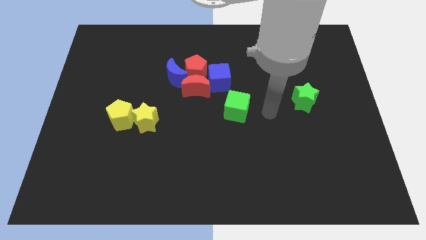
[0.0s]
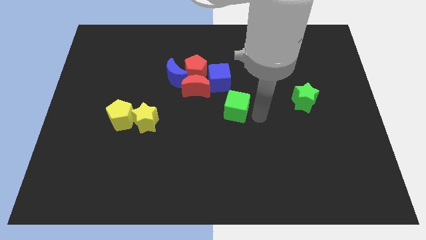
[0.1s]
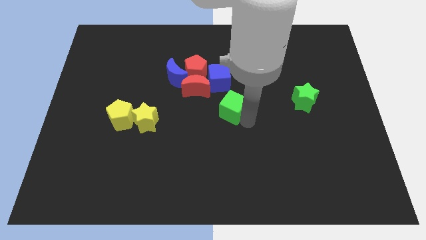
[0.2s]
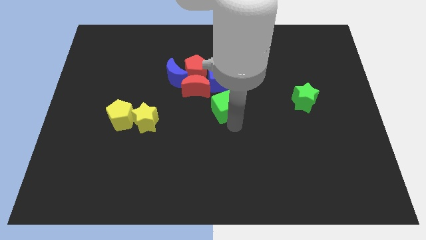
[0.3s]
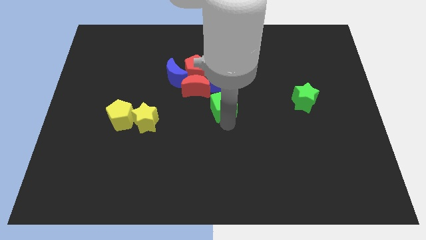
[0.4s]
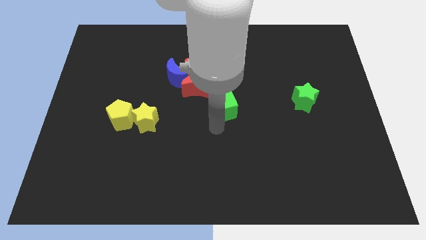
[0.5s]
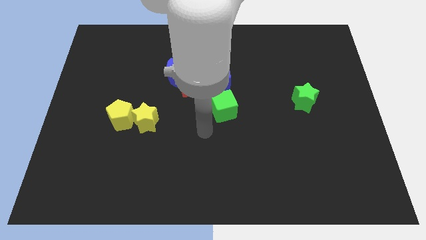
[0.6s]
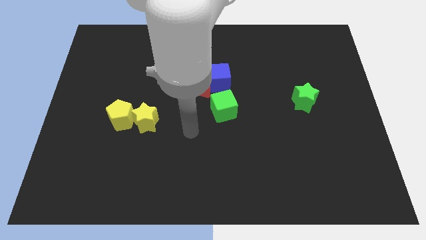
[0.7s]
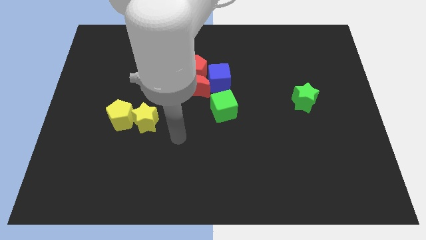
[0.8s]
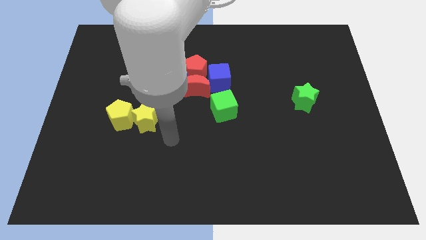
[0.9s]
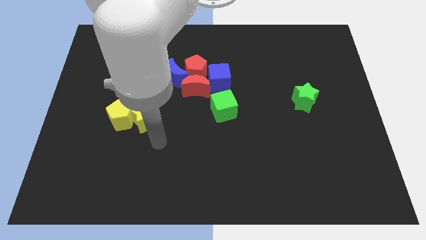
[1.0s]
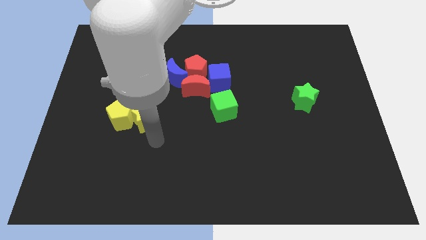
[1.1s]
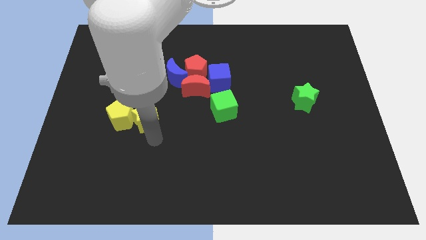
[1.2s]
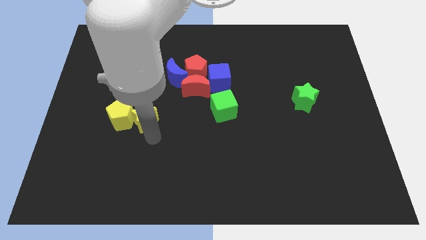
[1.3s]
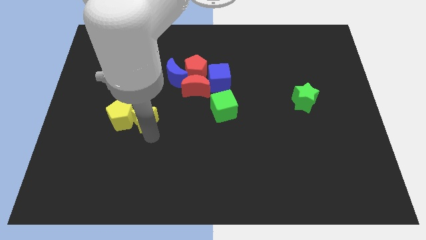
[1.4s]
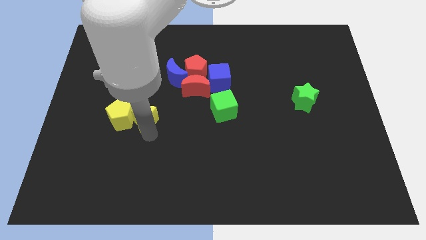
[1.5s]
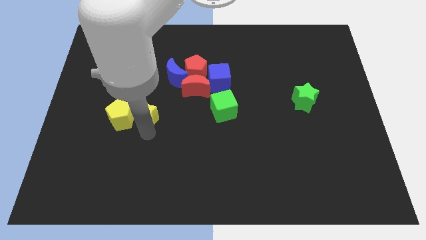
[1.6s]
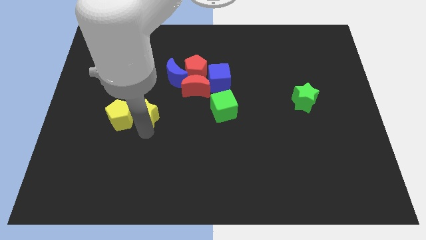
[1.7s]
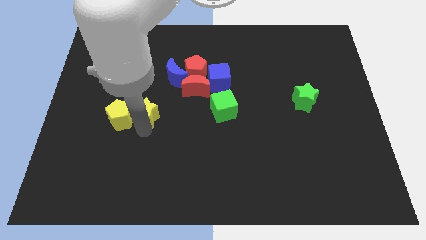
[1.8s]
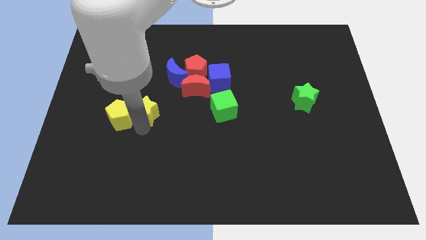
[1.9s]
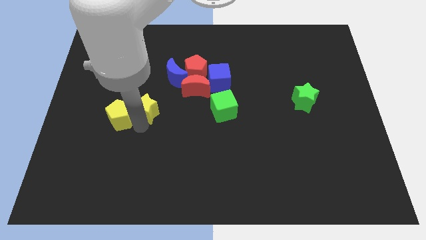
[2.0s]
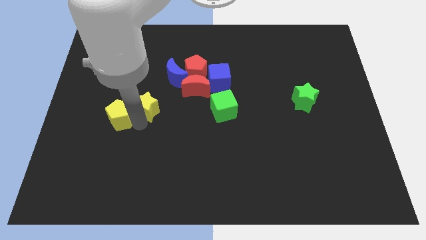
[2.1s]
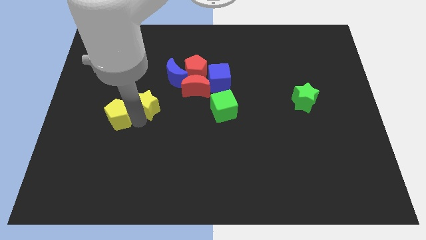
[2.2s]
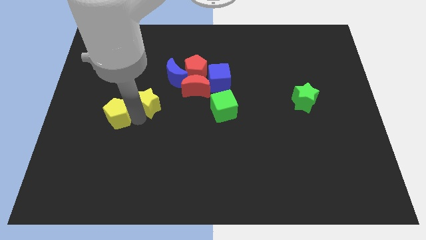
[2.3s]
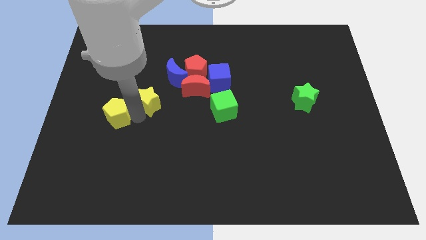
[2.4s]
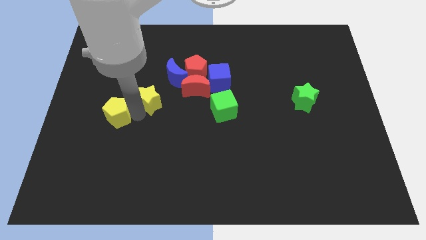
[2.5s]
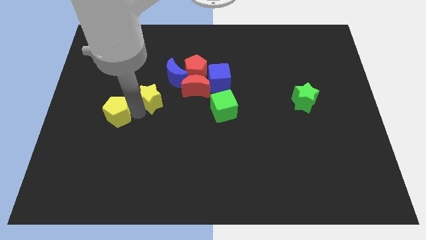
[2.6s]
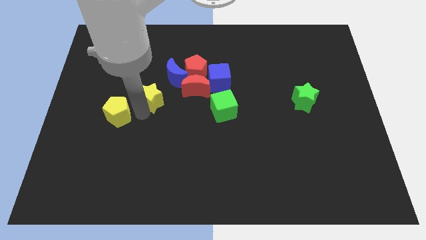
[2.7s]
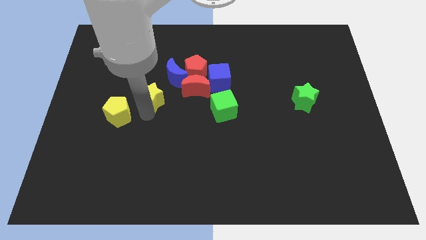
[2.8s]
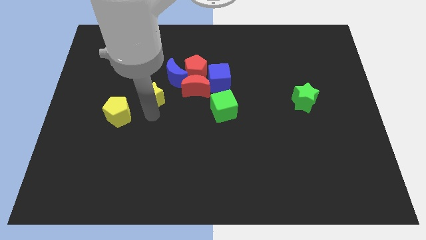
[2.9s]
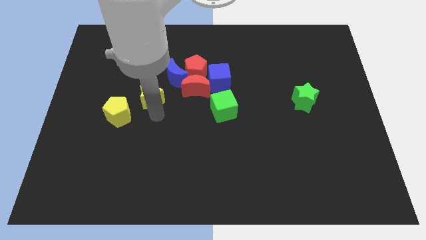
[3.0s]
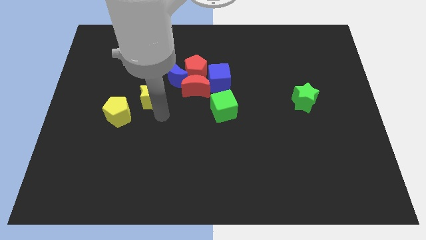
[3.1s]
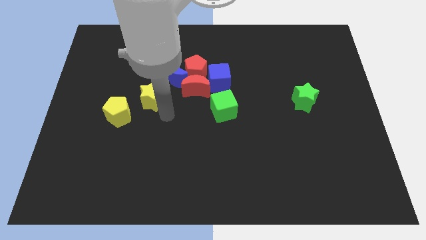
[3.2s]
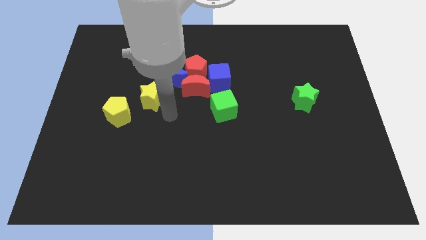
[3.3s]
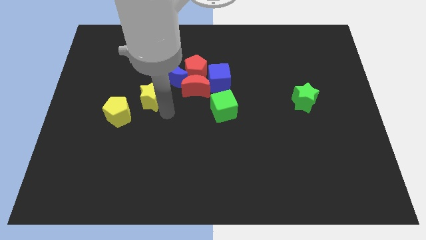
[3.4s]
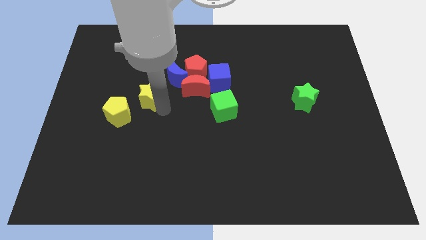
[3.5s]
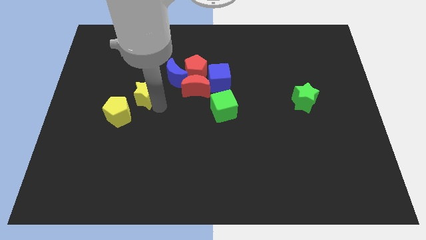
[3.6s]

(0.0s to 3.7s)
move the yellow star somewhat upwards

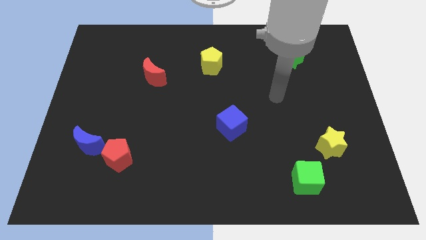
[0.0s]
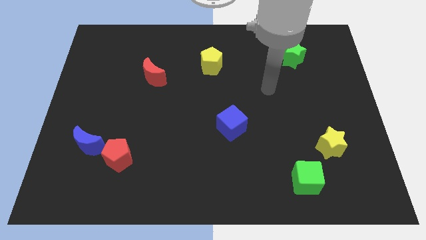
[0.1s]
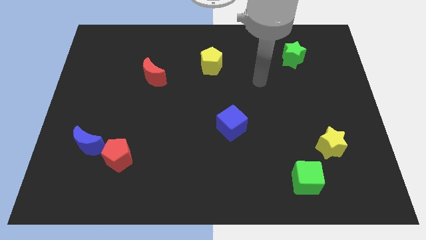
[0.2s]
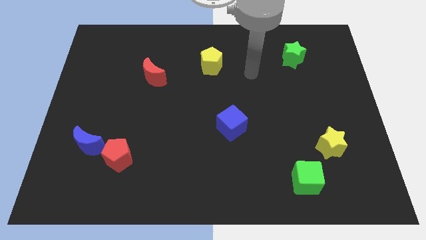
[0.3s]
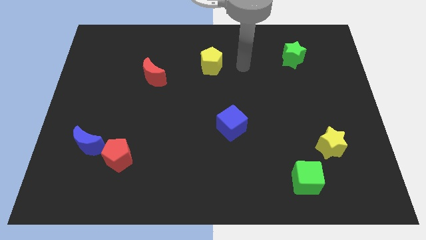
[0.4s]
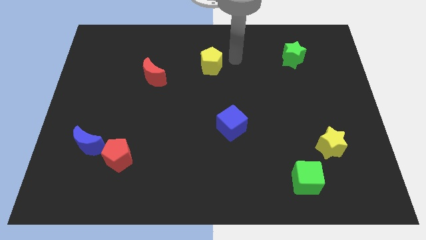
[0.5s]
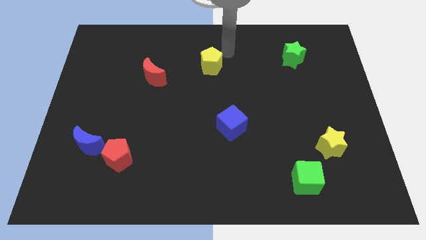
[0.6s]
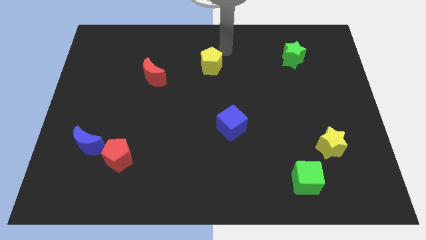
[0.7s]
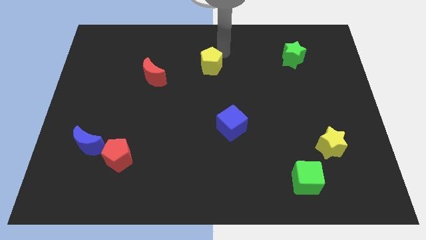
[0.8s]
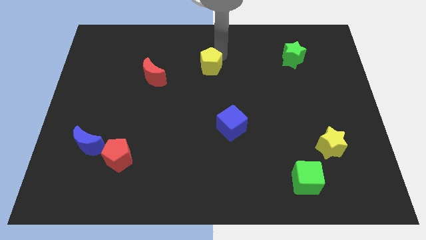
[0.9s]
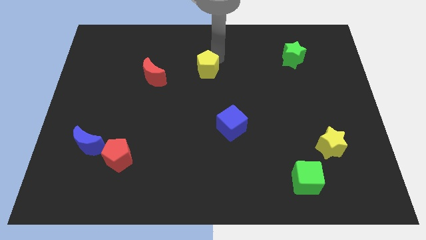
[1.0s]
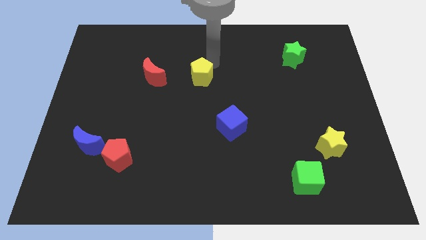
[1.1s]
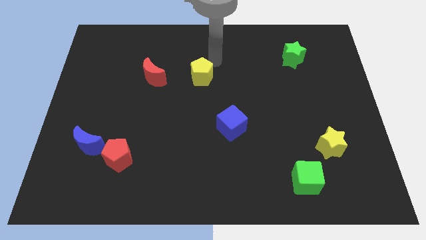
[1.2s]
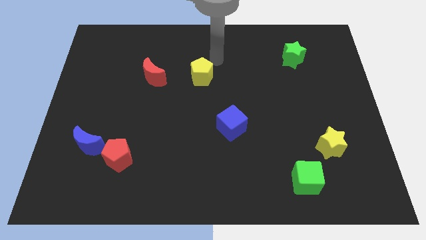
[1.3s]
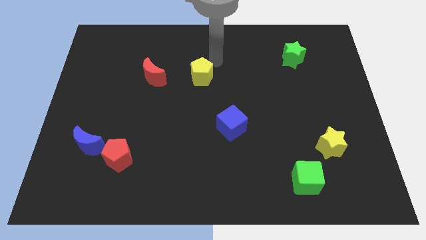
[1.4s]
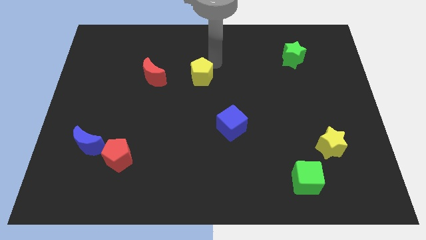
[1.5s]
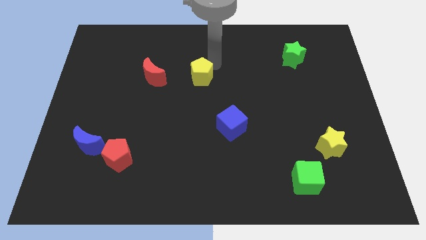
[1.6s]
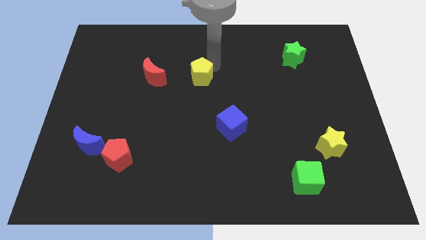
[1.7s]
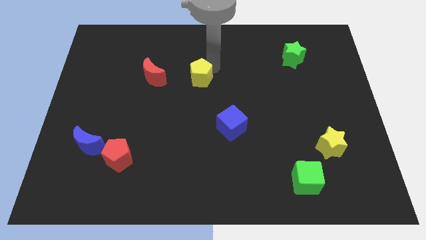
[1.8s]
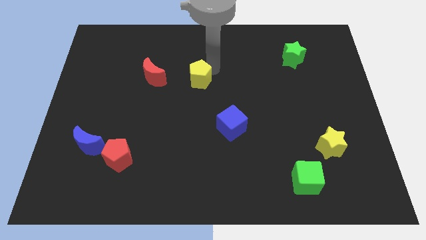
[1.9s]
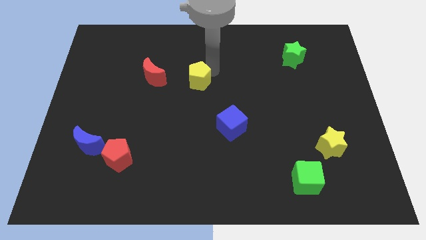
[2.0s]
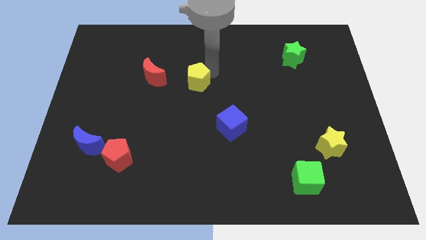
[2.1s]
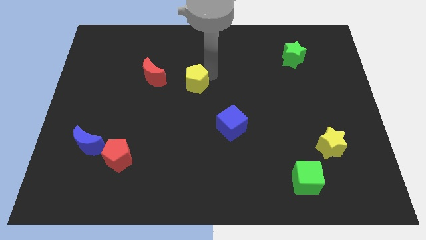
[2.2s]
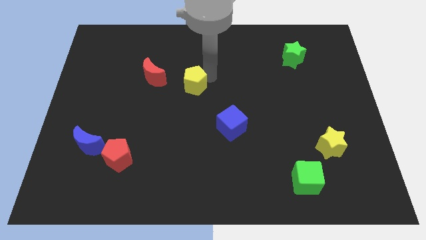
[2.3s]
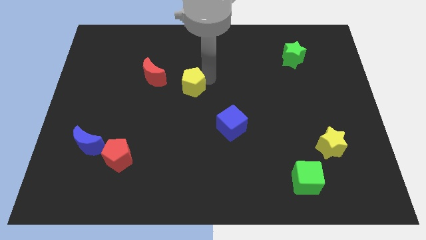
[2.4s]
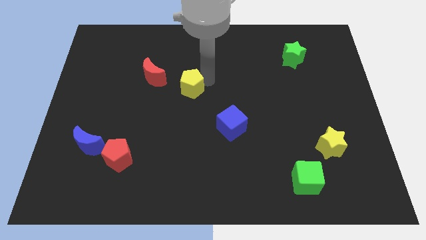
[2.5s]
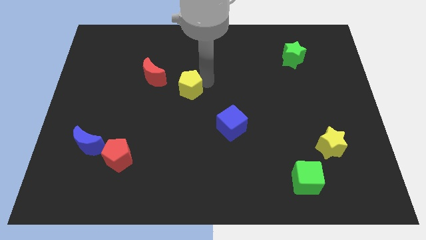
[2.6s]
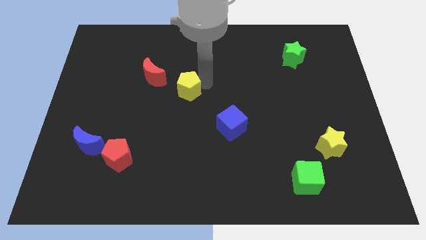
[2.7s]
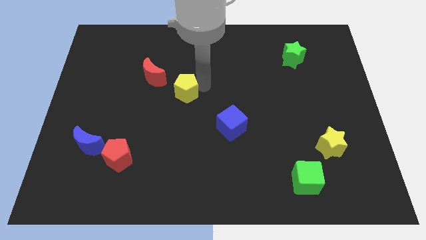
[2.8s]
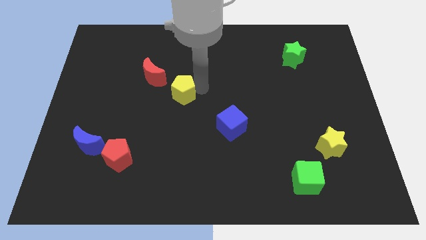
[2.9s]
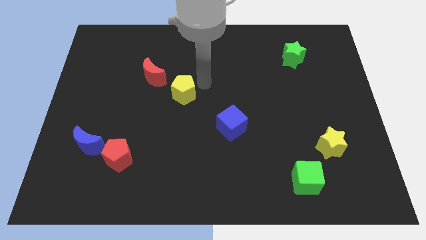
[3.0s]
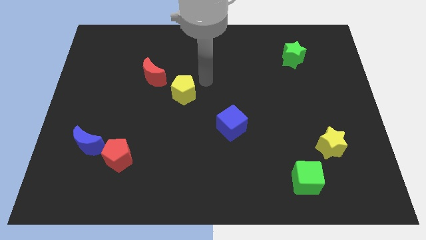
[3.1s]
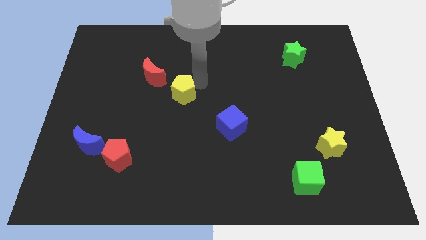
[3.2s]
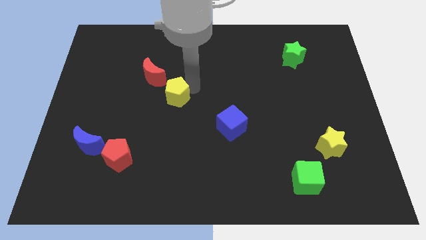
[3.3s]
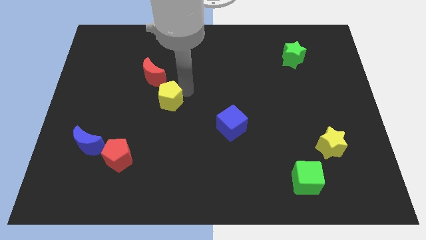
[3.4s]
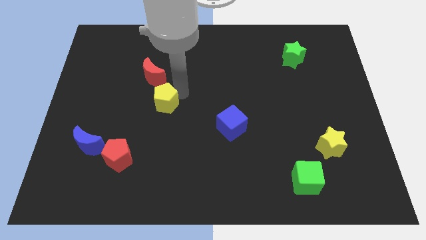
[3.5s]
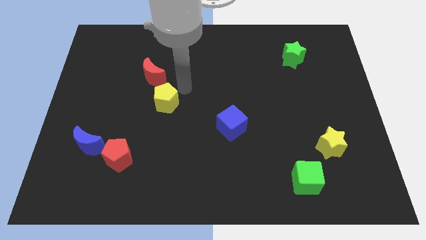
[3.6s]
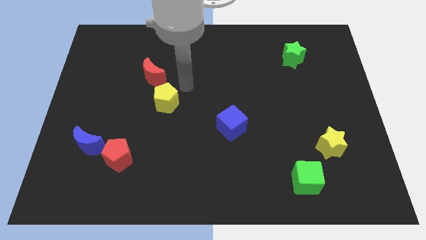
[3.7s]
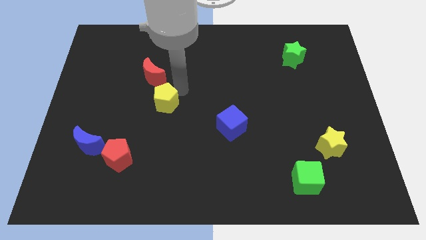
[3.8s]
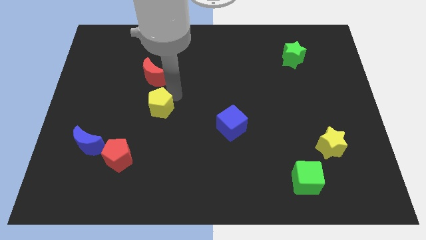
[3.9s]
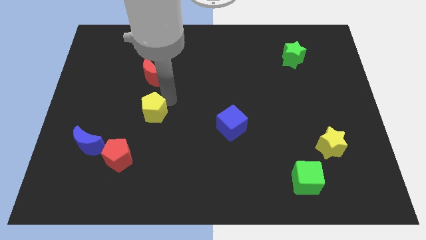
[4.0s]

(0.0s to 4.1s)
slide the yellow pentagon downwards and to the left diagonally

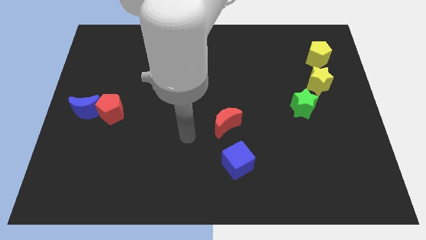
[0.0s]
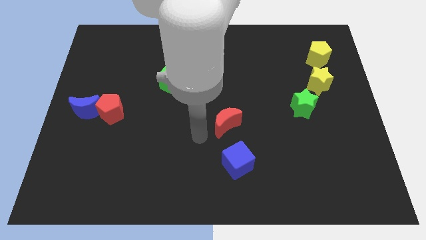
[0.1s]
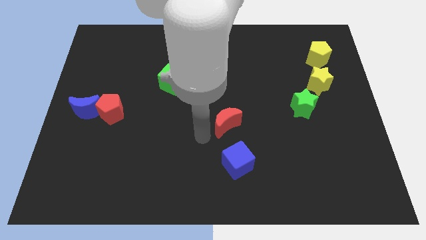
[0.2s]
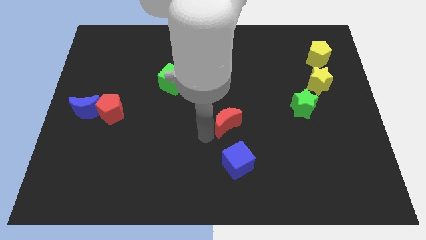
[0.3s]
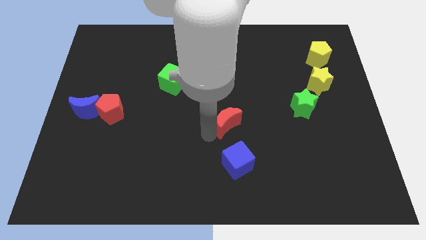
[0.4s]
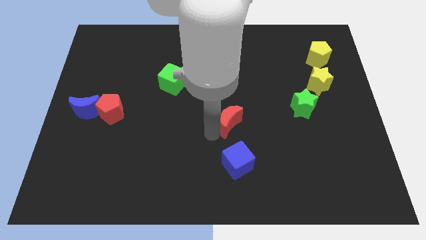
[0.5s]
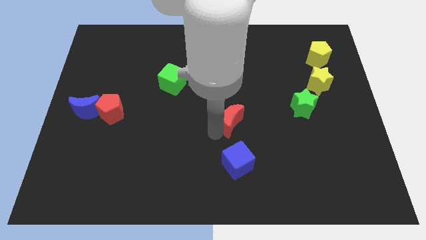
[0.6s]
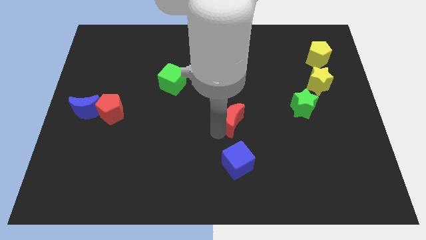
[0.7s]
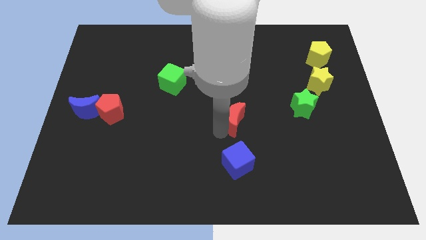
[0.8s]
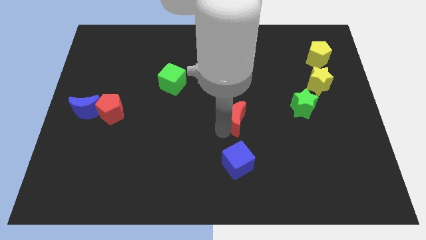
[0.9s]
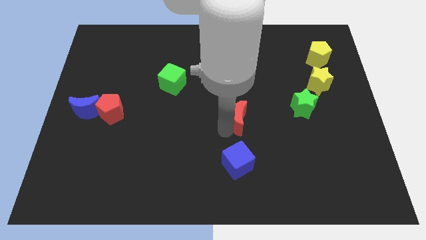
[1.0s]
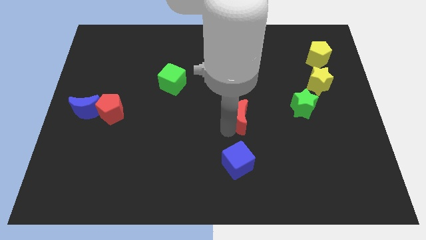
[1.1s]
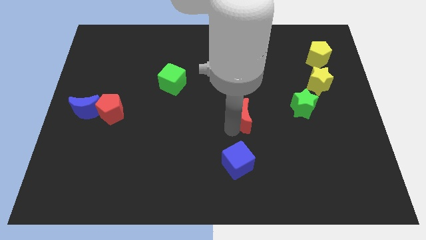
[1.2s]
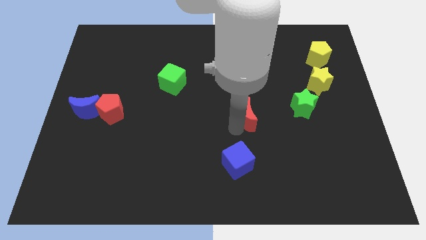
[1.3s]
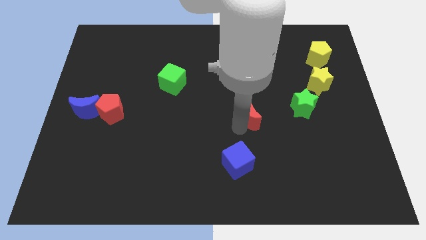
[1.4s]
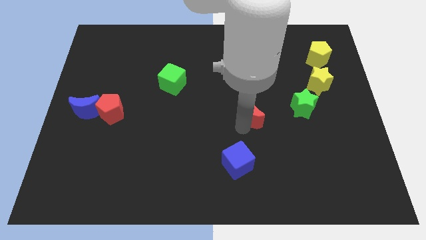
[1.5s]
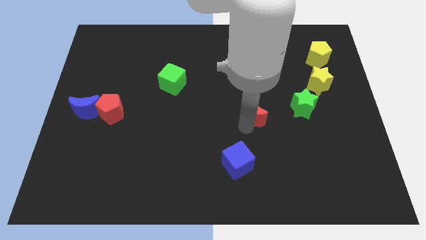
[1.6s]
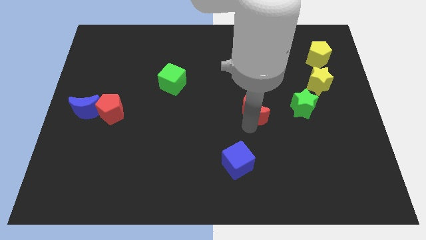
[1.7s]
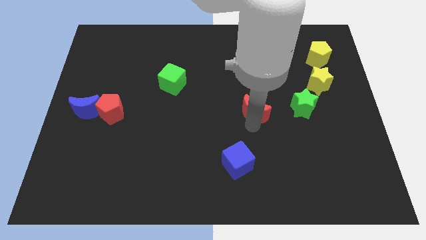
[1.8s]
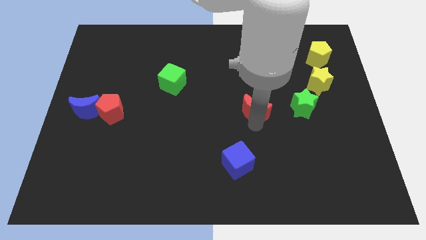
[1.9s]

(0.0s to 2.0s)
move the red moon slightly up and right diagonally
